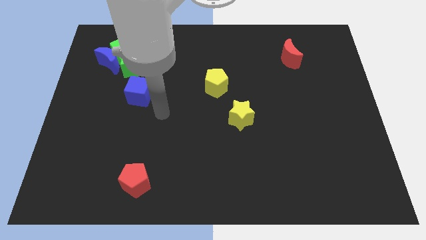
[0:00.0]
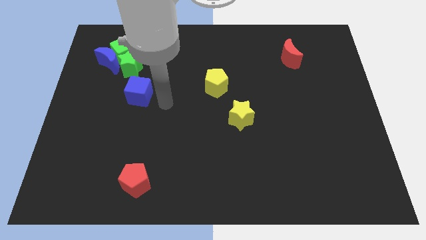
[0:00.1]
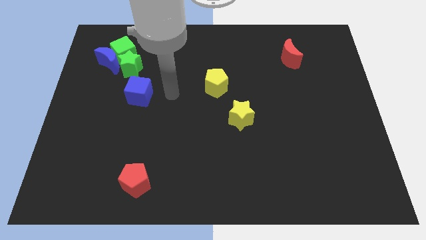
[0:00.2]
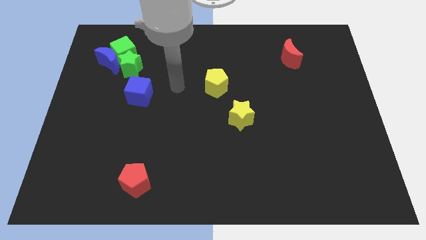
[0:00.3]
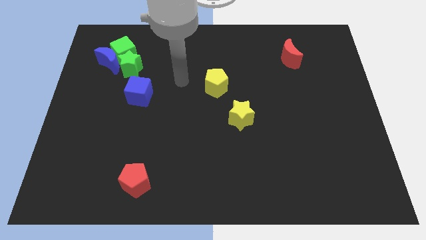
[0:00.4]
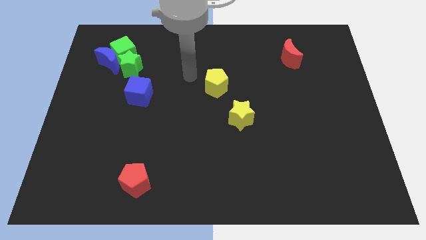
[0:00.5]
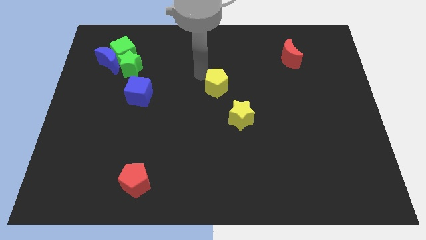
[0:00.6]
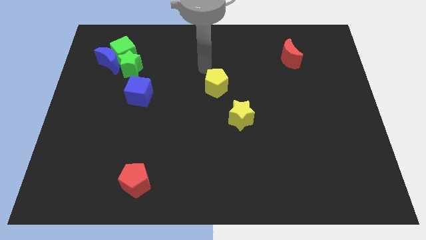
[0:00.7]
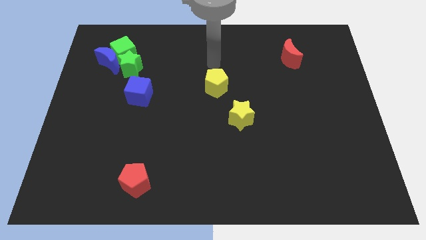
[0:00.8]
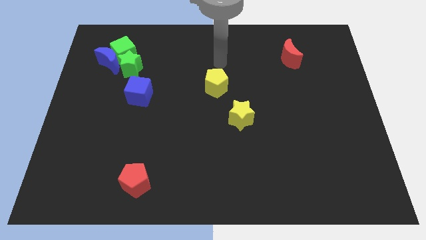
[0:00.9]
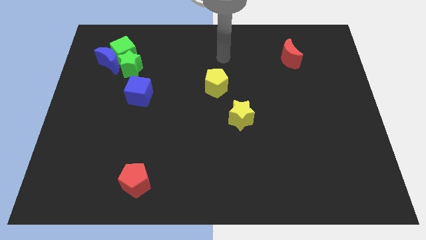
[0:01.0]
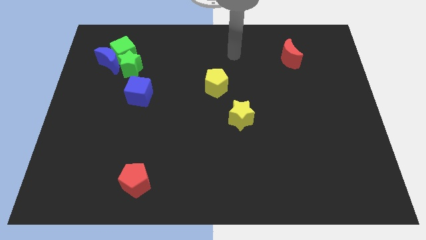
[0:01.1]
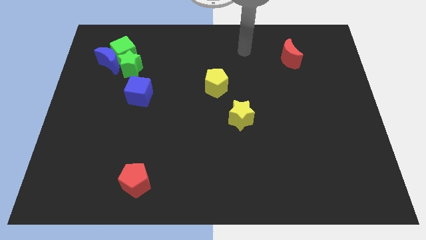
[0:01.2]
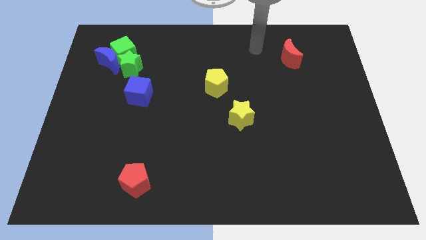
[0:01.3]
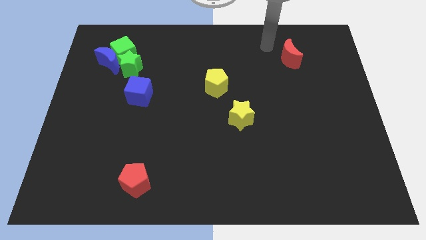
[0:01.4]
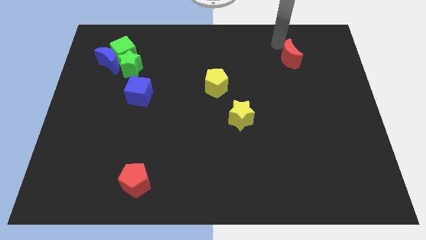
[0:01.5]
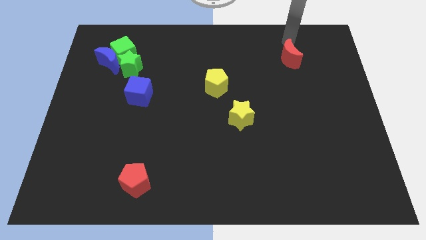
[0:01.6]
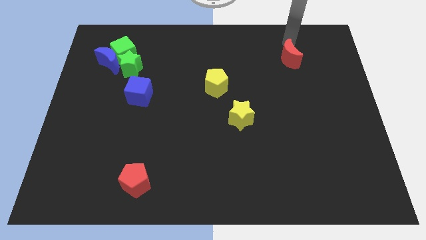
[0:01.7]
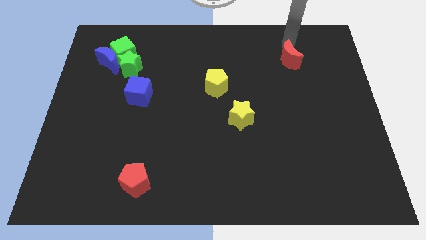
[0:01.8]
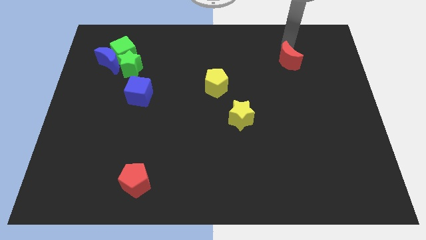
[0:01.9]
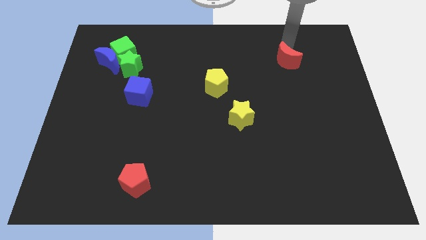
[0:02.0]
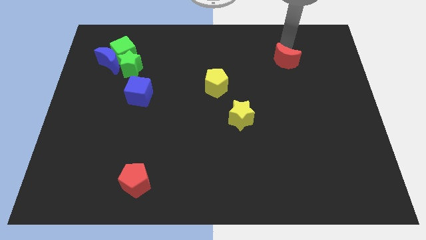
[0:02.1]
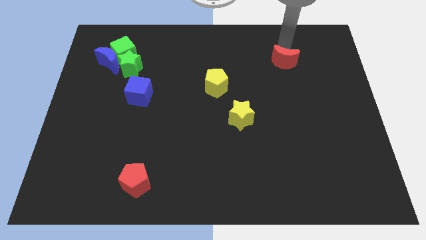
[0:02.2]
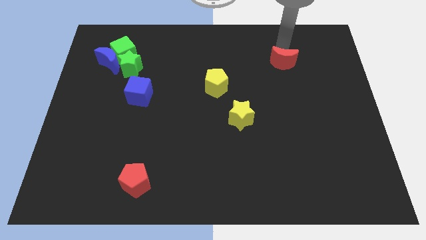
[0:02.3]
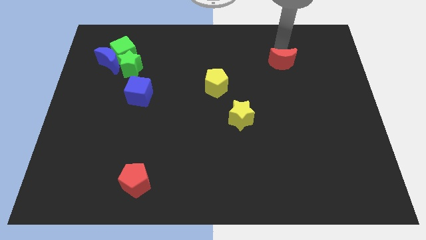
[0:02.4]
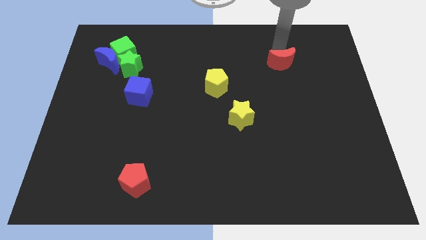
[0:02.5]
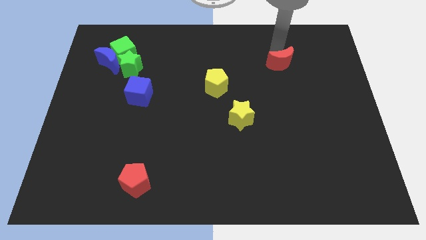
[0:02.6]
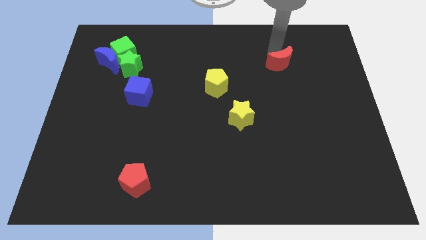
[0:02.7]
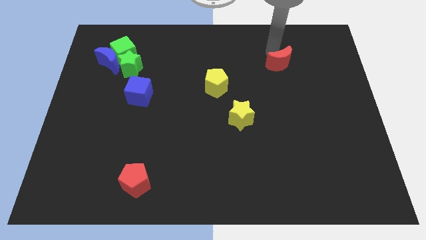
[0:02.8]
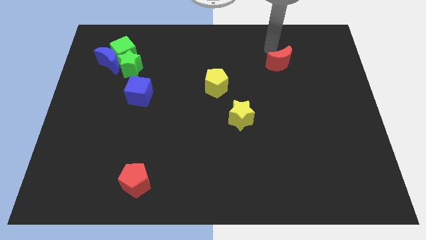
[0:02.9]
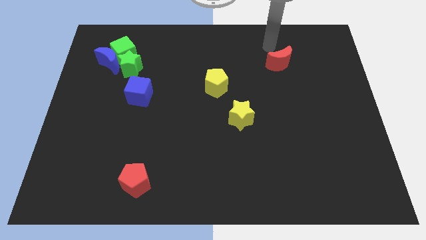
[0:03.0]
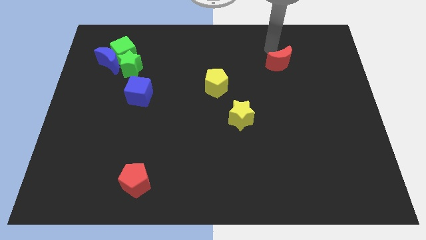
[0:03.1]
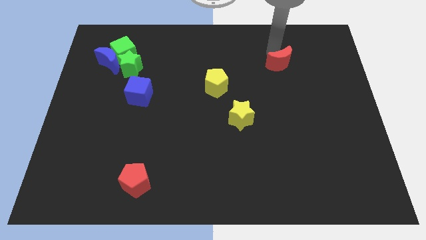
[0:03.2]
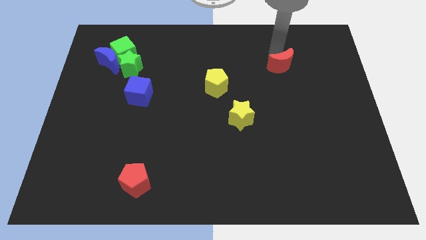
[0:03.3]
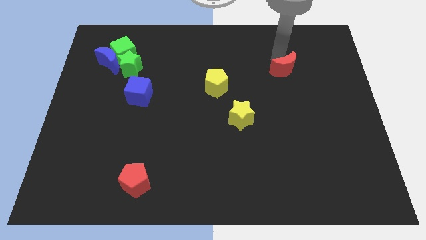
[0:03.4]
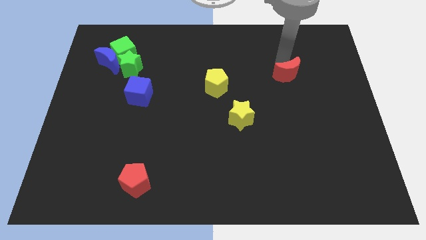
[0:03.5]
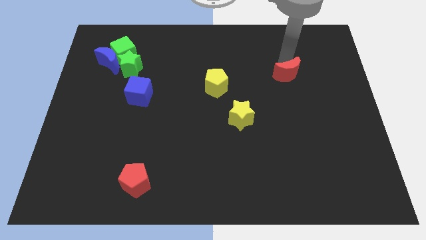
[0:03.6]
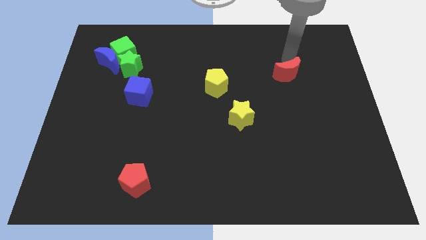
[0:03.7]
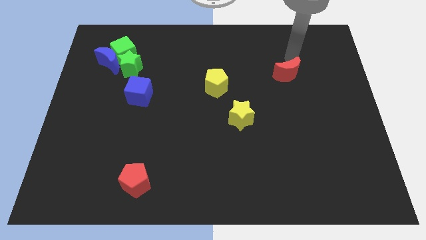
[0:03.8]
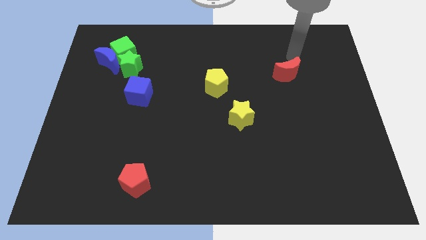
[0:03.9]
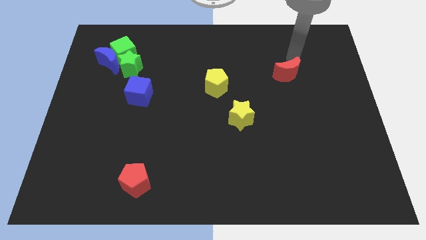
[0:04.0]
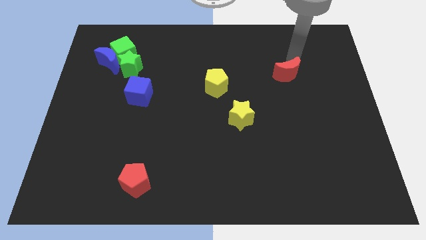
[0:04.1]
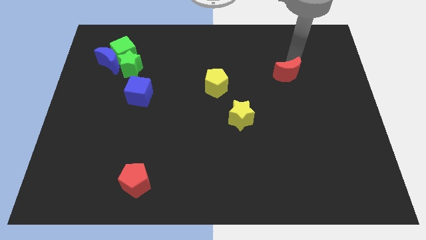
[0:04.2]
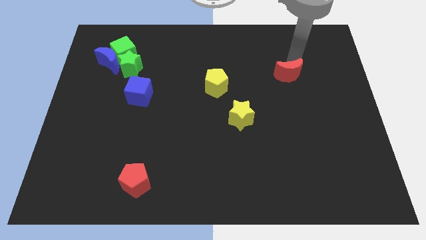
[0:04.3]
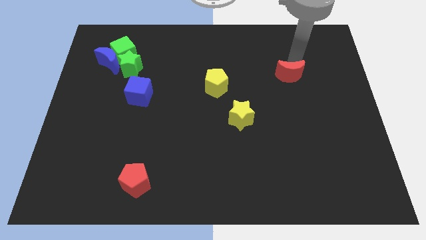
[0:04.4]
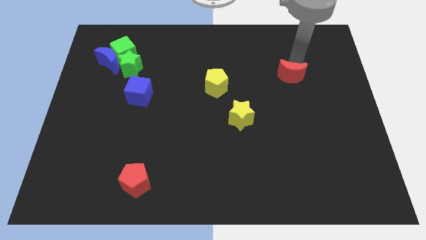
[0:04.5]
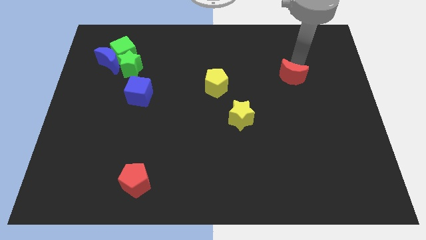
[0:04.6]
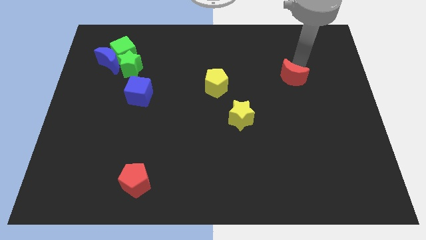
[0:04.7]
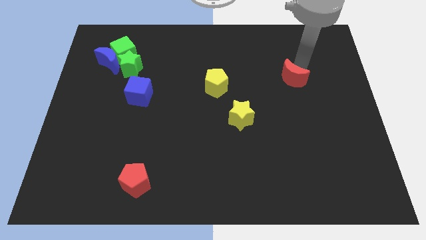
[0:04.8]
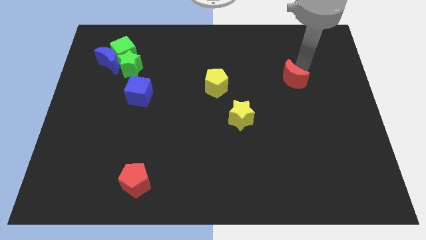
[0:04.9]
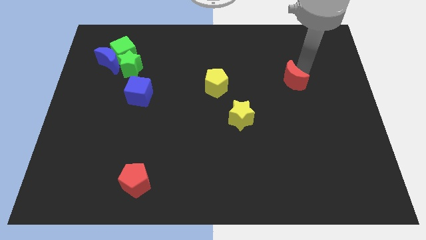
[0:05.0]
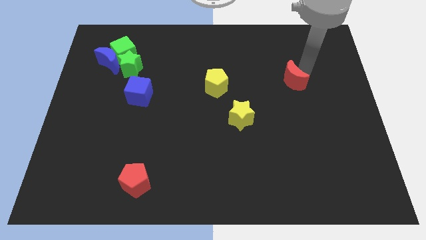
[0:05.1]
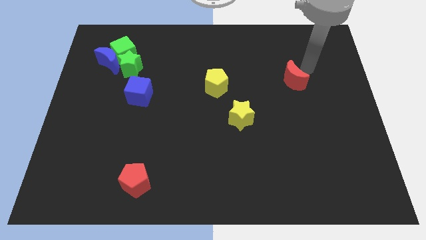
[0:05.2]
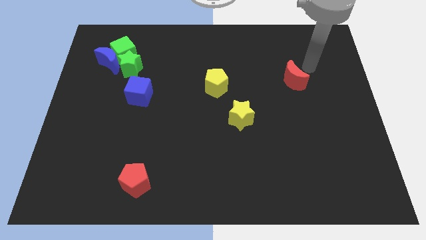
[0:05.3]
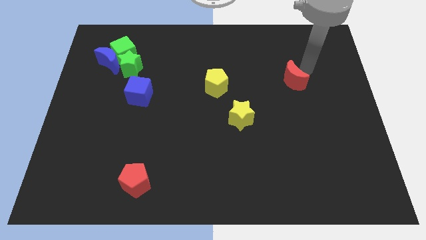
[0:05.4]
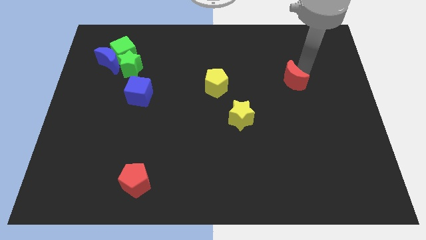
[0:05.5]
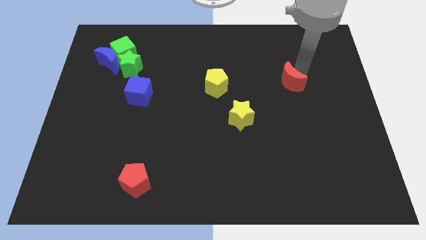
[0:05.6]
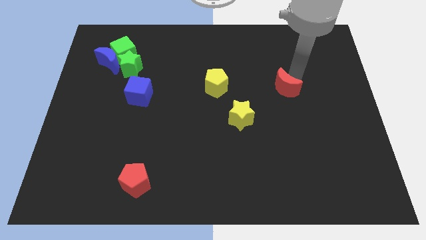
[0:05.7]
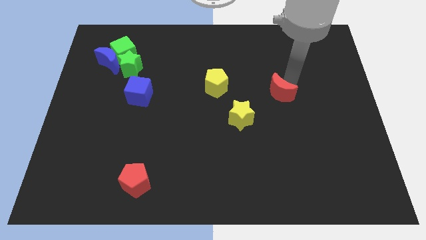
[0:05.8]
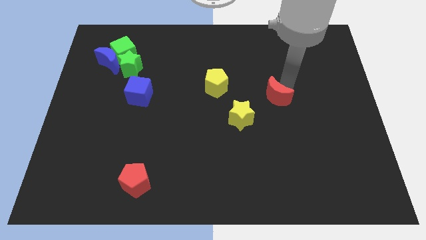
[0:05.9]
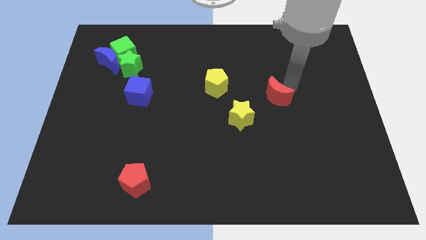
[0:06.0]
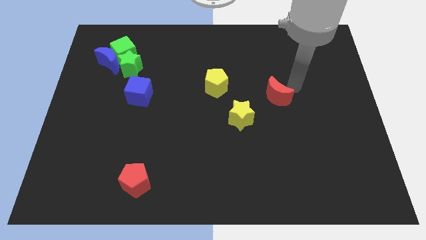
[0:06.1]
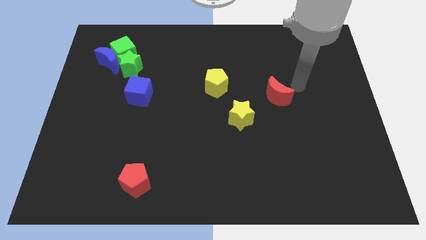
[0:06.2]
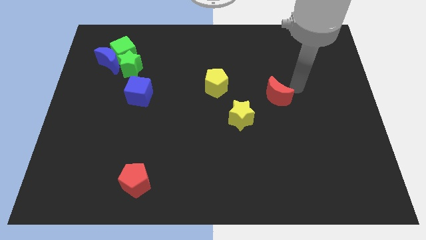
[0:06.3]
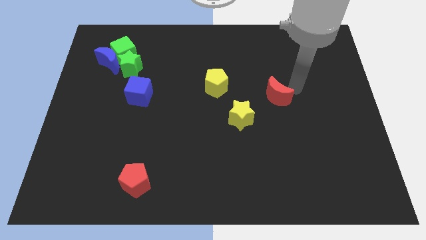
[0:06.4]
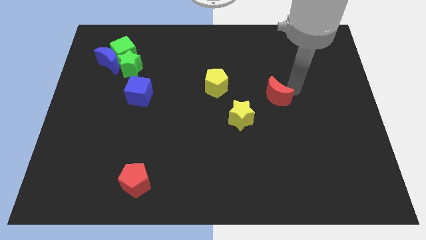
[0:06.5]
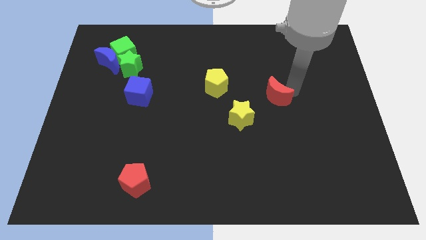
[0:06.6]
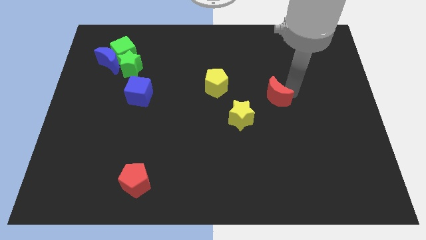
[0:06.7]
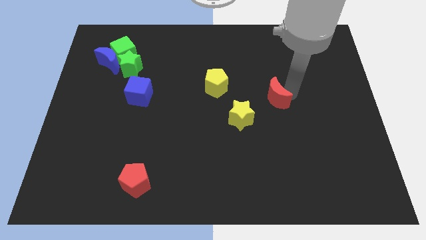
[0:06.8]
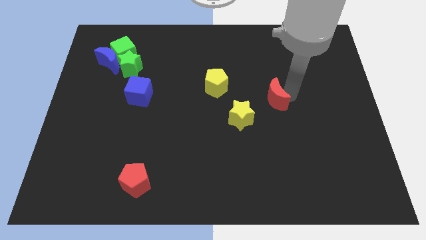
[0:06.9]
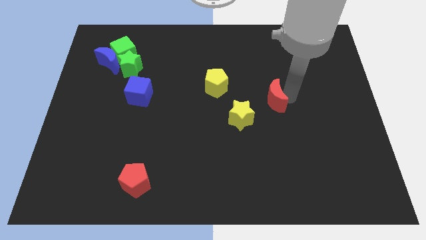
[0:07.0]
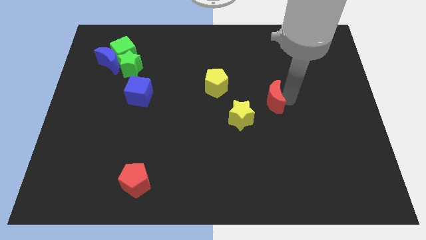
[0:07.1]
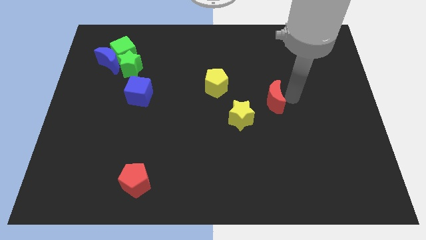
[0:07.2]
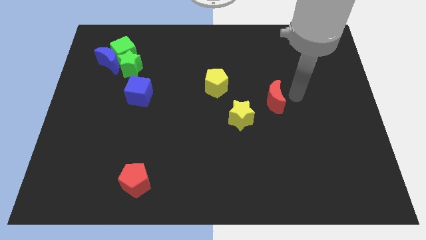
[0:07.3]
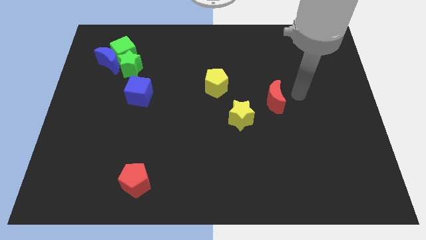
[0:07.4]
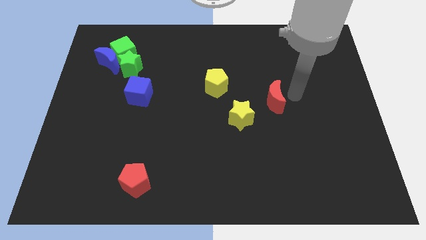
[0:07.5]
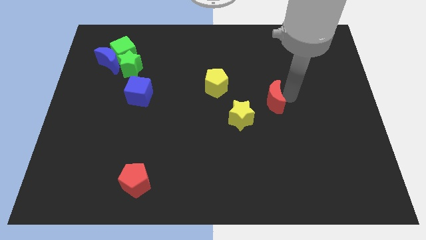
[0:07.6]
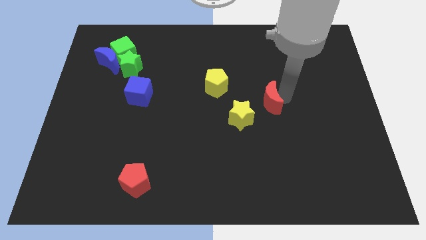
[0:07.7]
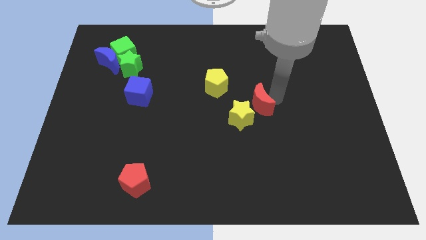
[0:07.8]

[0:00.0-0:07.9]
push the red moon to the yellow star
